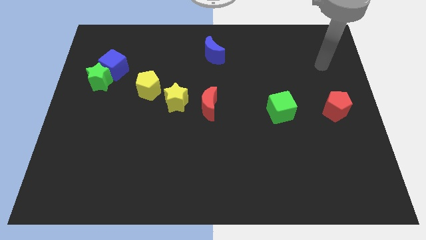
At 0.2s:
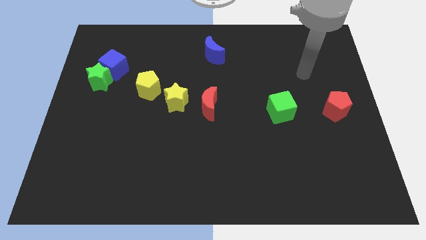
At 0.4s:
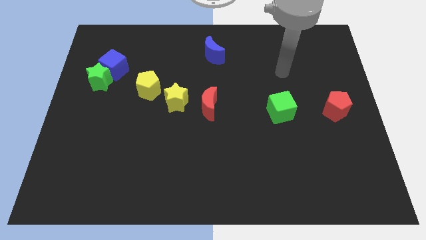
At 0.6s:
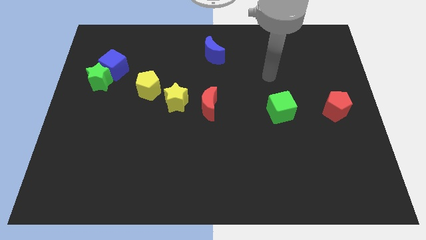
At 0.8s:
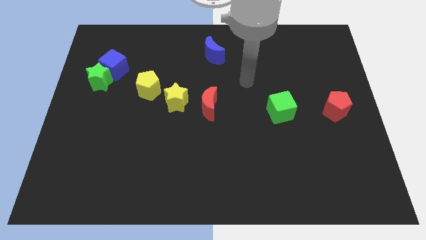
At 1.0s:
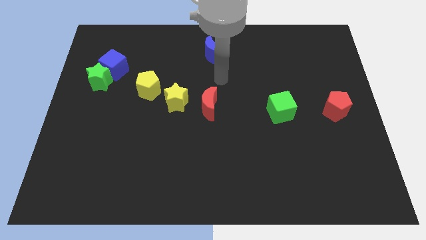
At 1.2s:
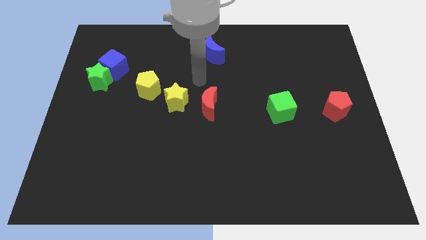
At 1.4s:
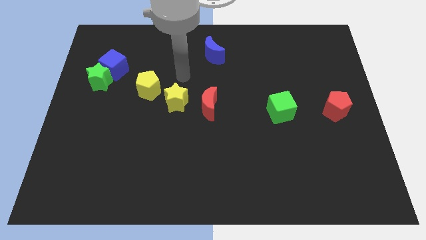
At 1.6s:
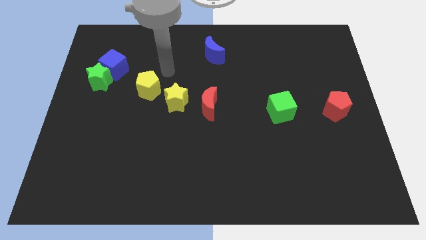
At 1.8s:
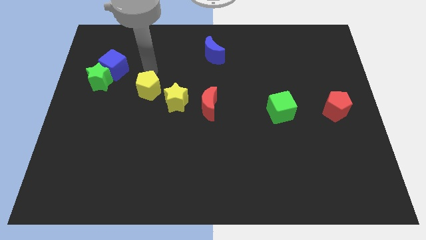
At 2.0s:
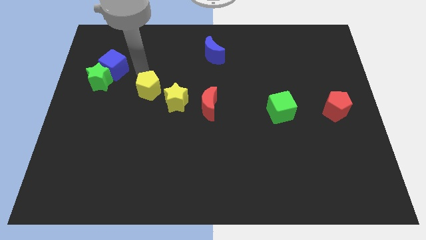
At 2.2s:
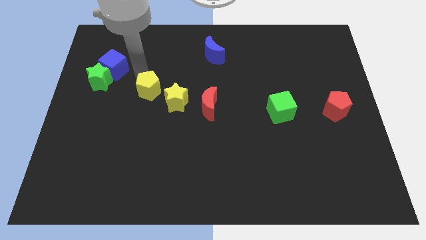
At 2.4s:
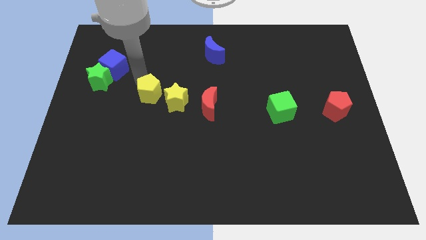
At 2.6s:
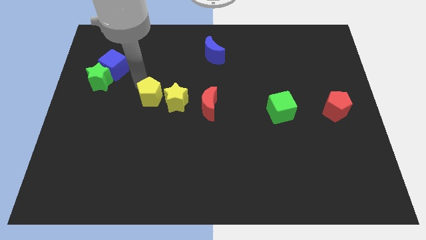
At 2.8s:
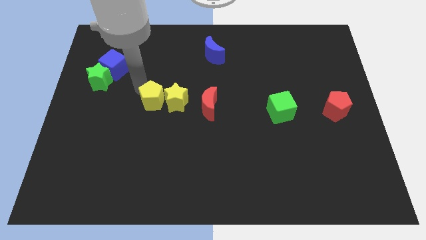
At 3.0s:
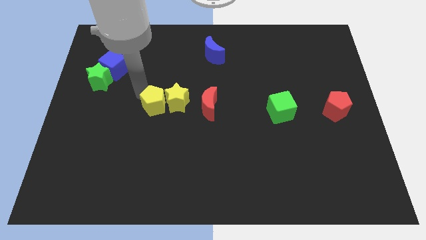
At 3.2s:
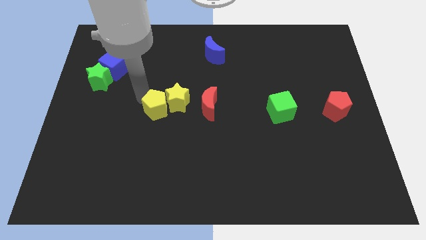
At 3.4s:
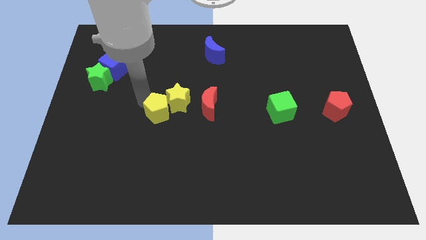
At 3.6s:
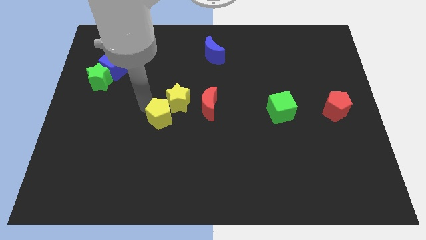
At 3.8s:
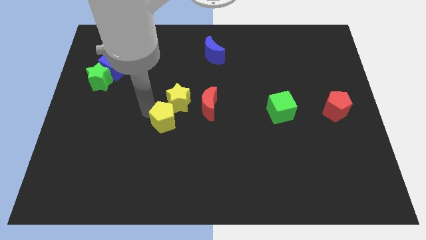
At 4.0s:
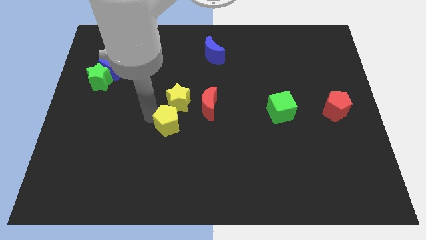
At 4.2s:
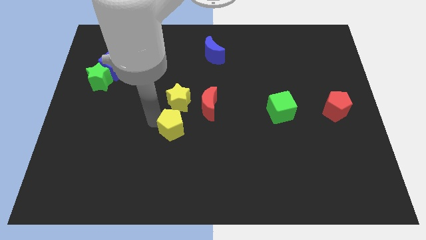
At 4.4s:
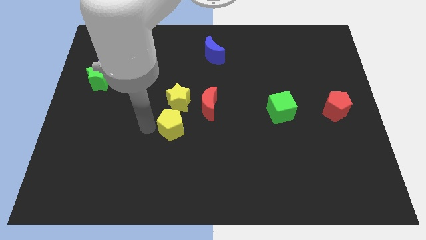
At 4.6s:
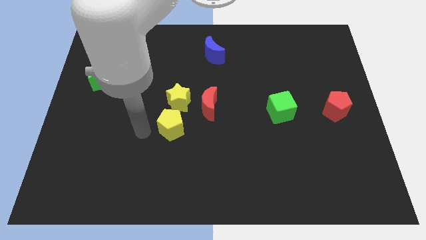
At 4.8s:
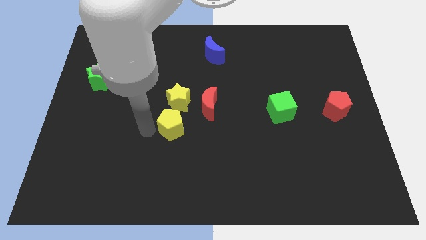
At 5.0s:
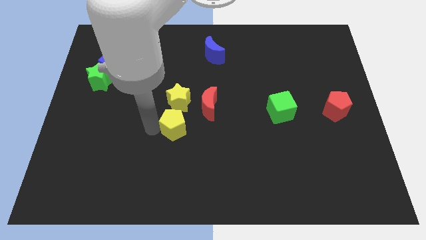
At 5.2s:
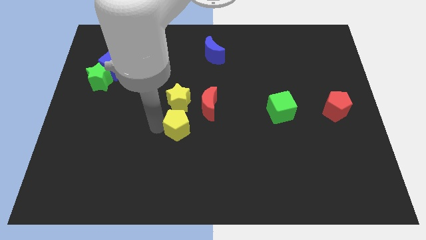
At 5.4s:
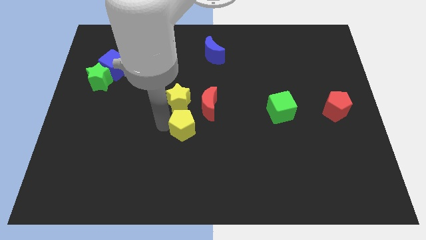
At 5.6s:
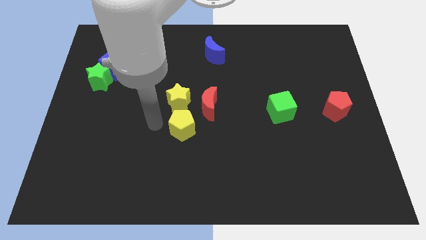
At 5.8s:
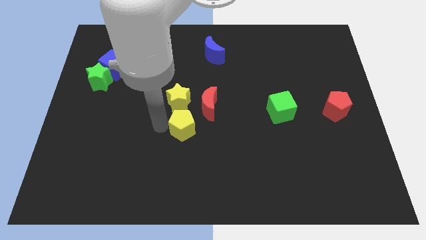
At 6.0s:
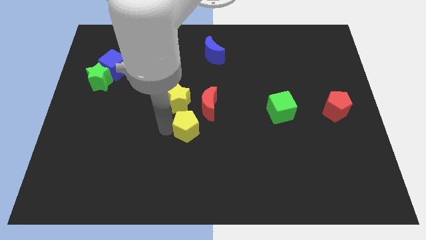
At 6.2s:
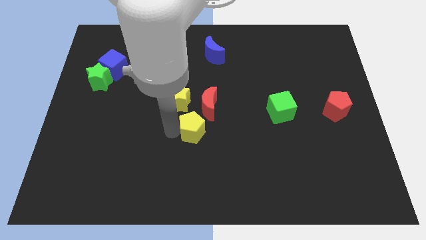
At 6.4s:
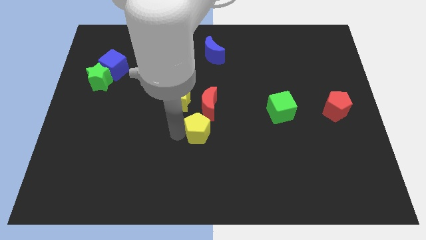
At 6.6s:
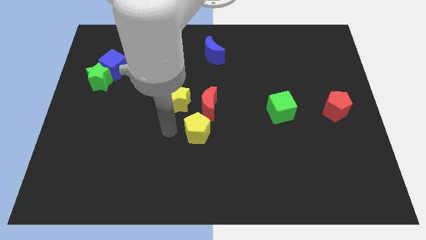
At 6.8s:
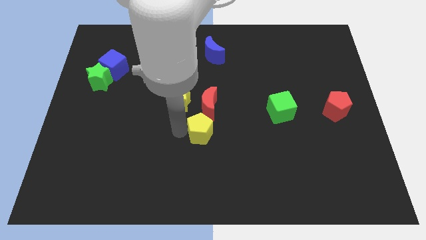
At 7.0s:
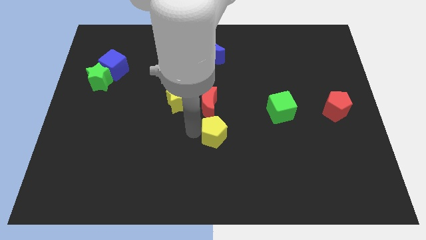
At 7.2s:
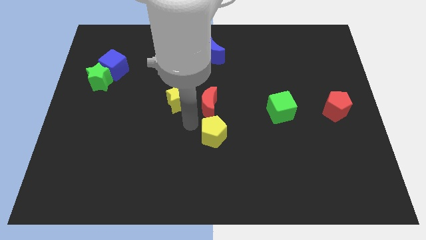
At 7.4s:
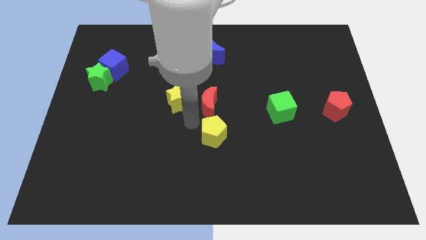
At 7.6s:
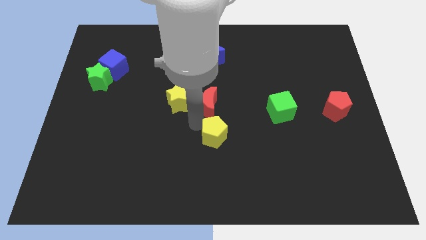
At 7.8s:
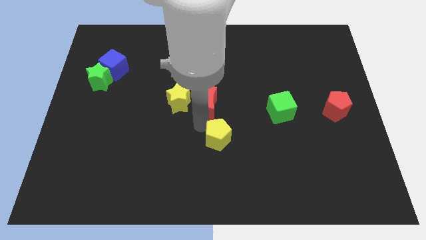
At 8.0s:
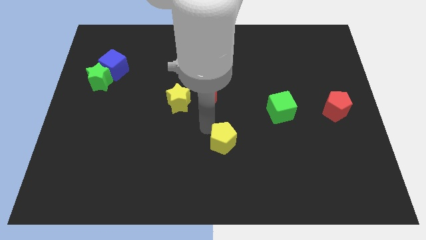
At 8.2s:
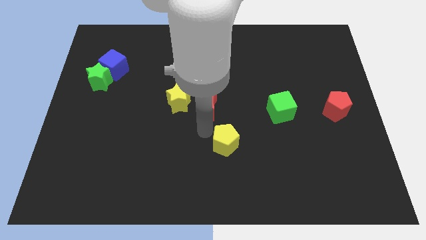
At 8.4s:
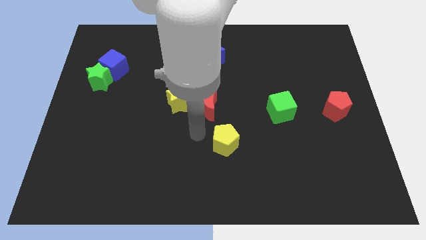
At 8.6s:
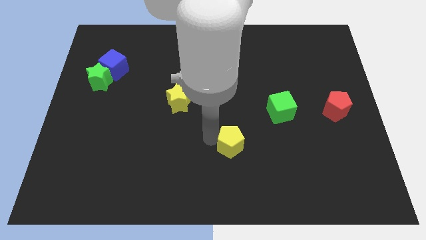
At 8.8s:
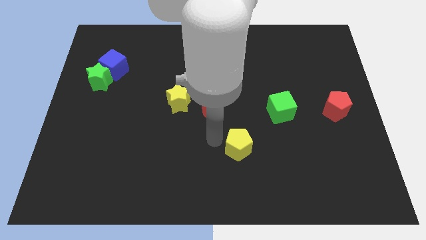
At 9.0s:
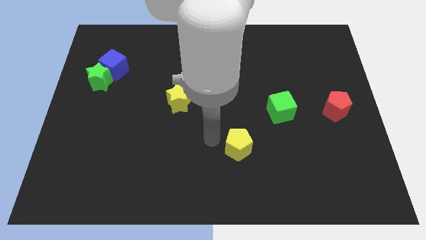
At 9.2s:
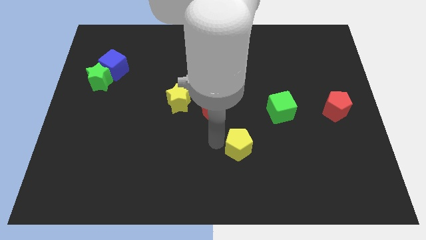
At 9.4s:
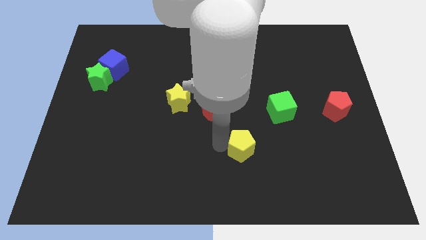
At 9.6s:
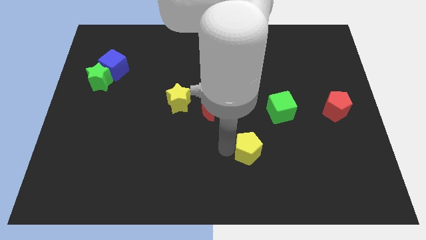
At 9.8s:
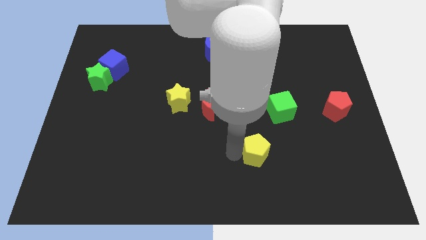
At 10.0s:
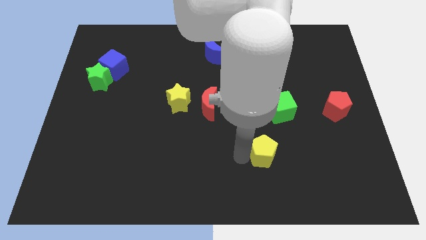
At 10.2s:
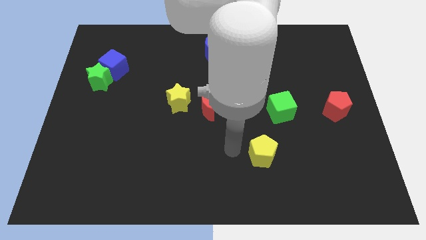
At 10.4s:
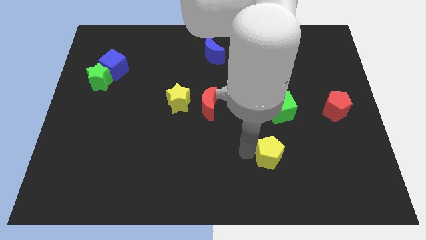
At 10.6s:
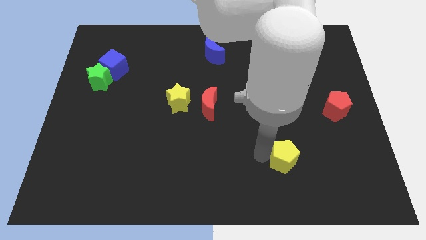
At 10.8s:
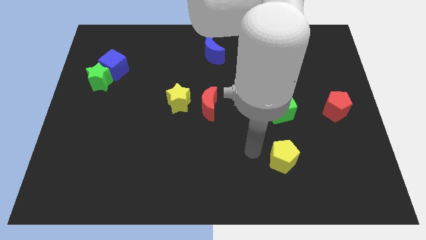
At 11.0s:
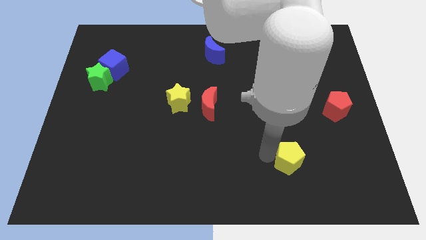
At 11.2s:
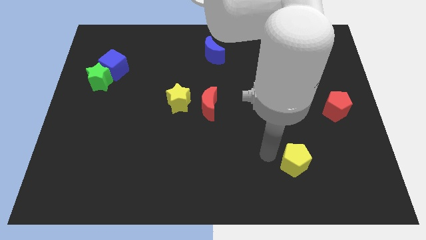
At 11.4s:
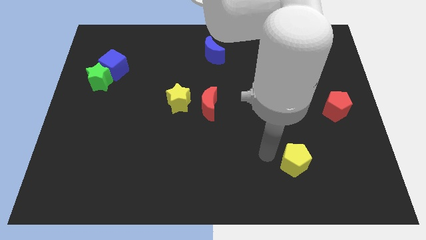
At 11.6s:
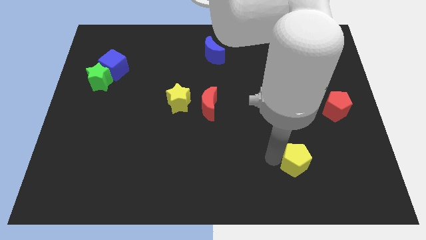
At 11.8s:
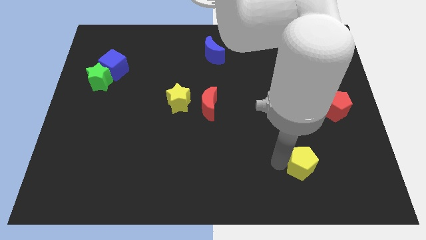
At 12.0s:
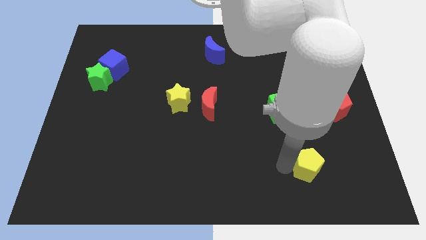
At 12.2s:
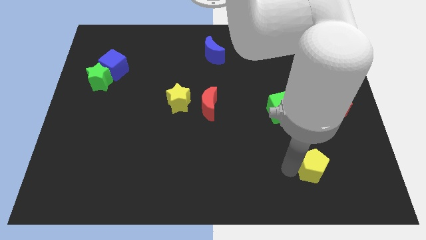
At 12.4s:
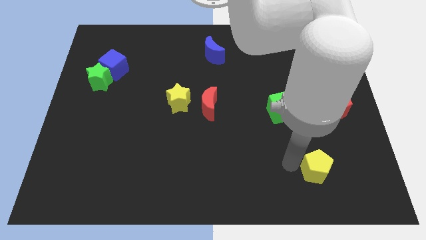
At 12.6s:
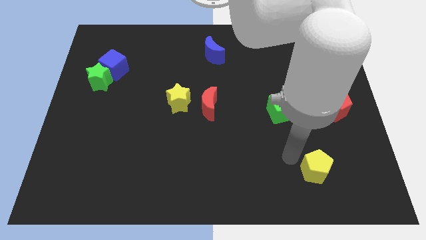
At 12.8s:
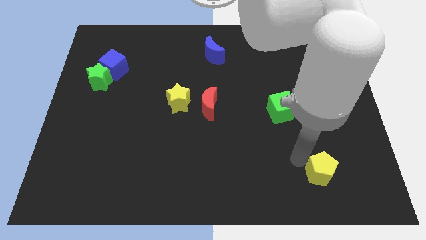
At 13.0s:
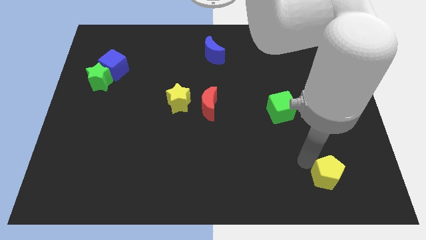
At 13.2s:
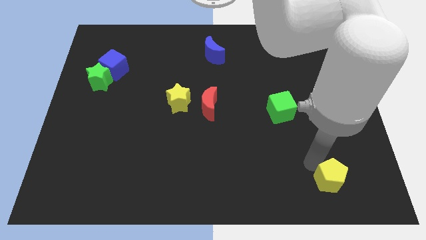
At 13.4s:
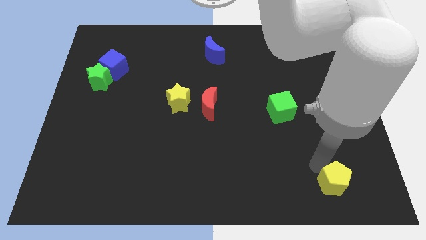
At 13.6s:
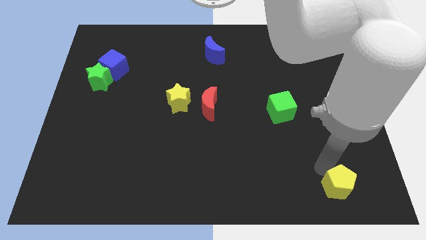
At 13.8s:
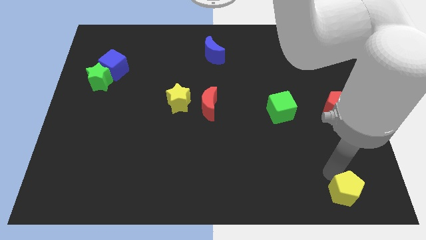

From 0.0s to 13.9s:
move the yellow pentagon to the lower right corner
